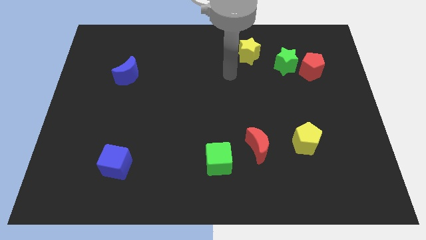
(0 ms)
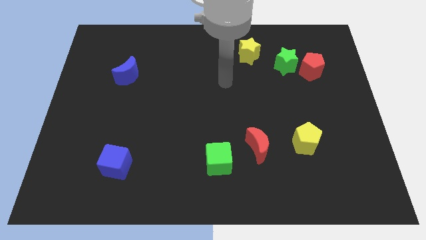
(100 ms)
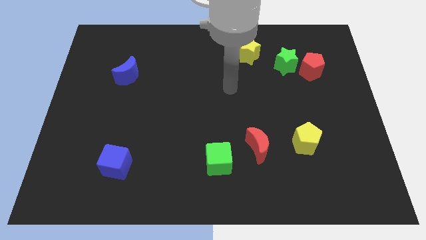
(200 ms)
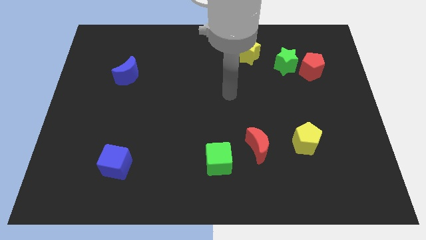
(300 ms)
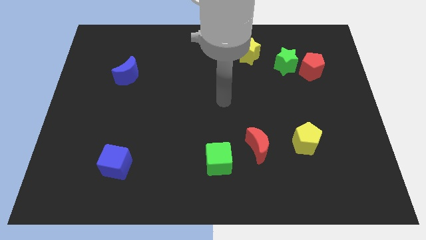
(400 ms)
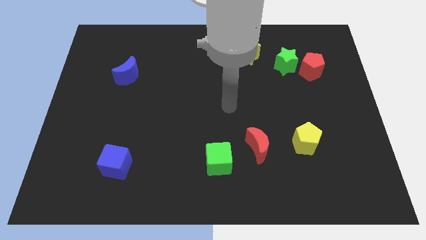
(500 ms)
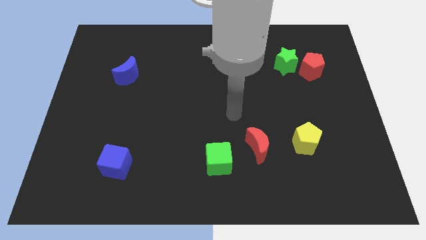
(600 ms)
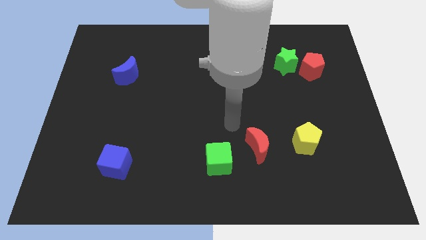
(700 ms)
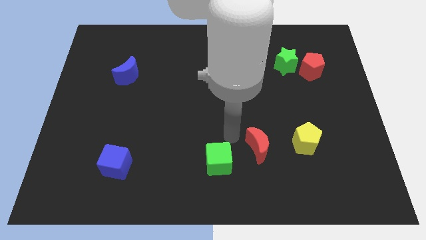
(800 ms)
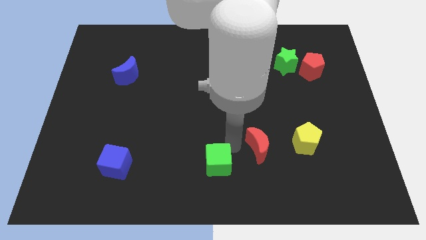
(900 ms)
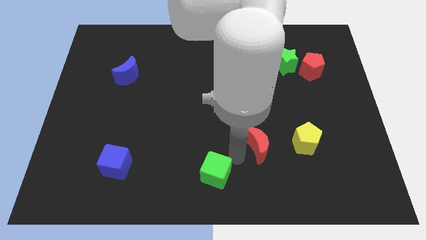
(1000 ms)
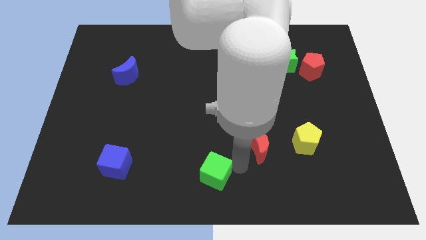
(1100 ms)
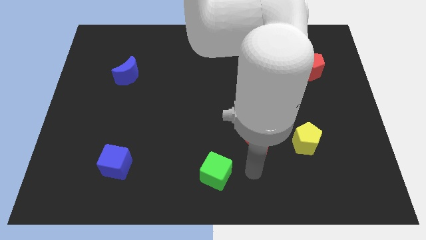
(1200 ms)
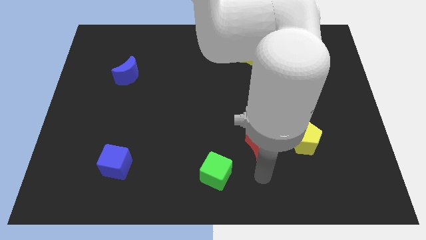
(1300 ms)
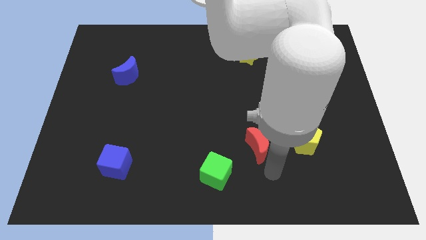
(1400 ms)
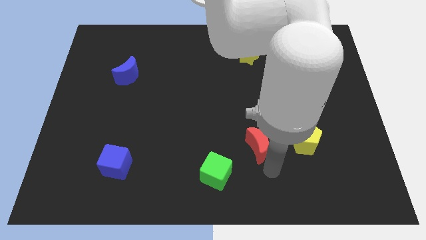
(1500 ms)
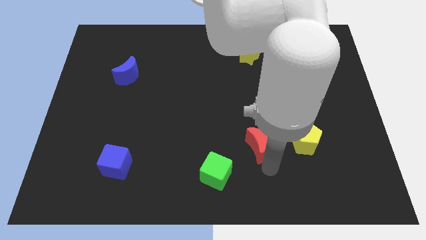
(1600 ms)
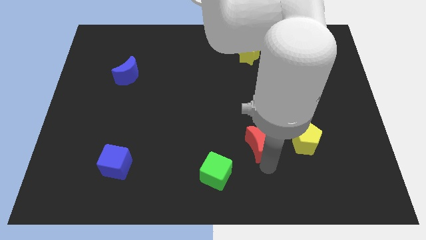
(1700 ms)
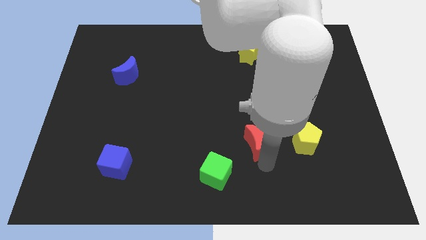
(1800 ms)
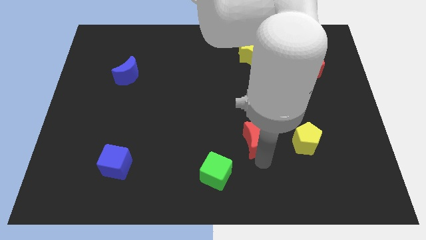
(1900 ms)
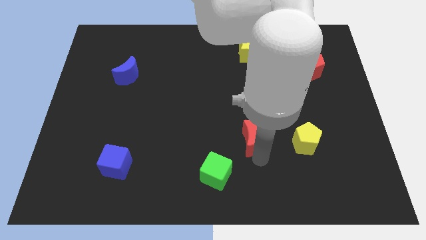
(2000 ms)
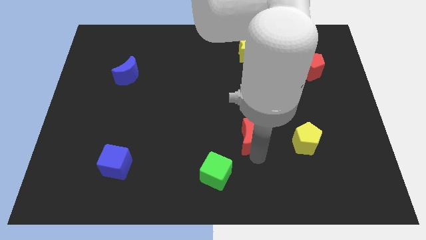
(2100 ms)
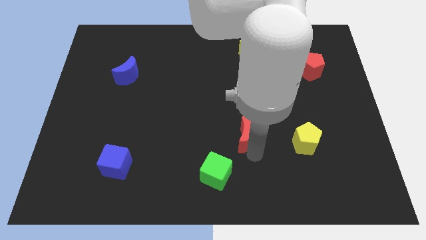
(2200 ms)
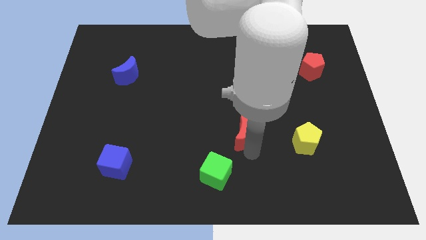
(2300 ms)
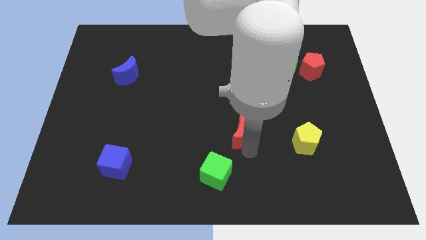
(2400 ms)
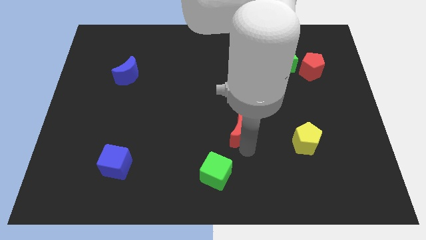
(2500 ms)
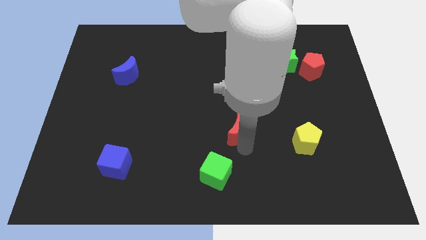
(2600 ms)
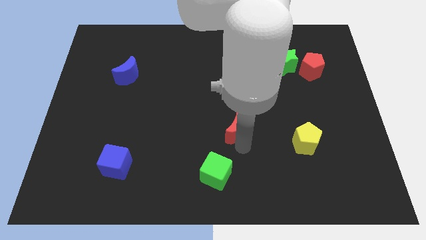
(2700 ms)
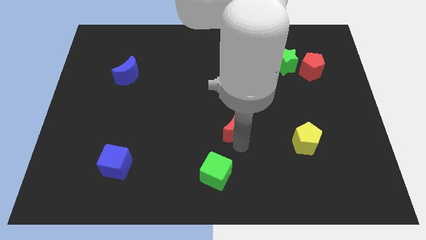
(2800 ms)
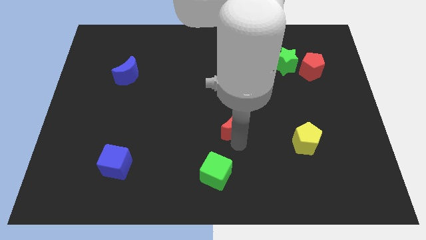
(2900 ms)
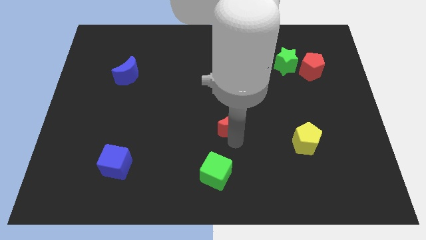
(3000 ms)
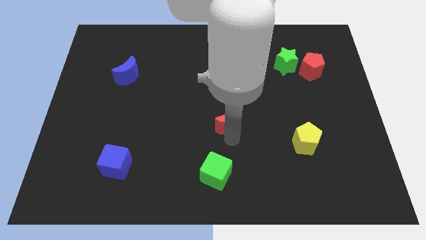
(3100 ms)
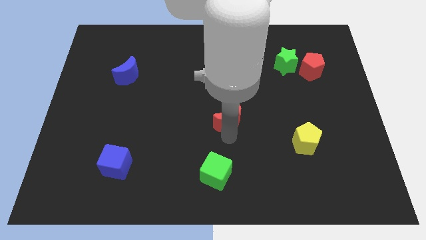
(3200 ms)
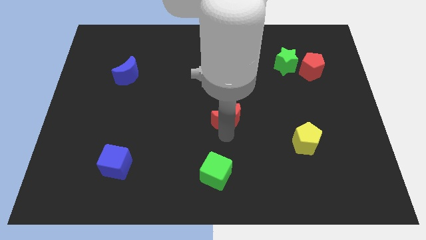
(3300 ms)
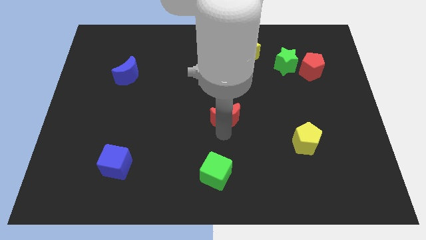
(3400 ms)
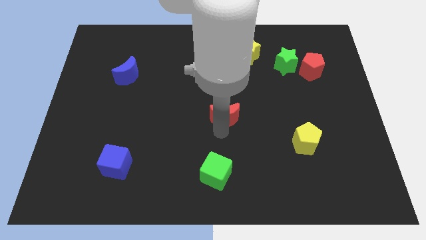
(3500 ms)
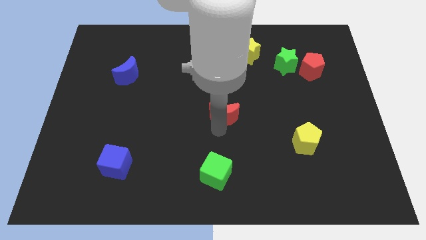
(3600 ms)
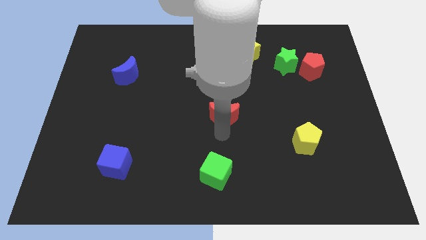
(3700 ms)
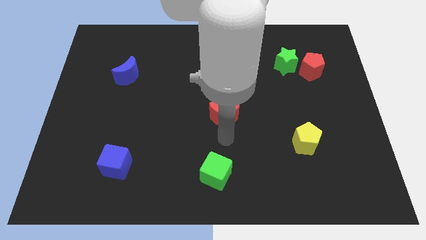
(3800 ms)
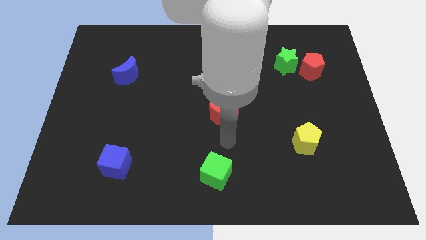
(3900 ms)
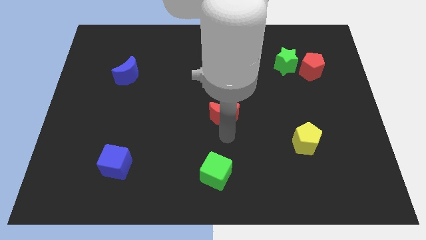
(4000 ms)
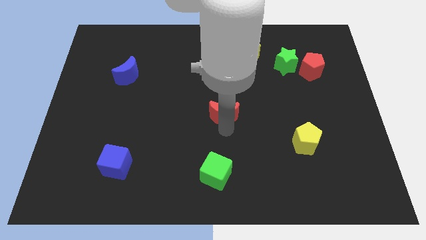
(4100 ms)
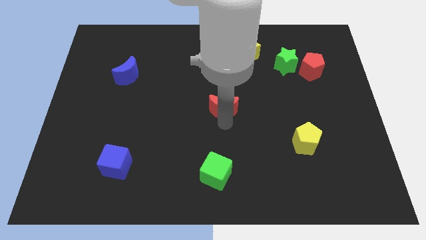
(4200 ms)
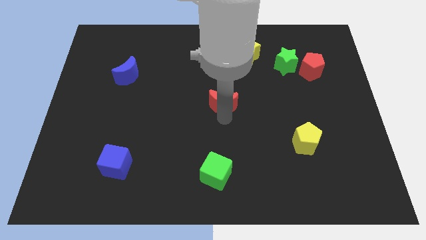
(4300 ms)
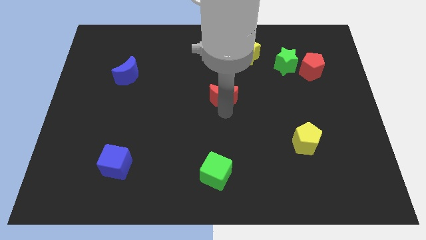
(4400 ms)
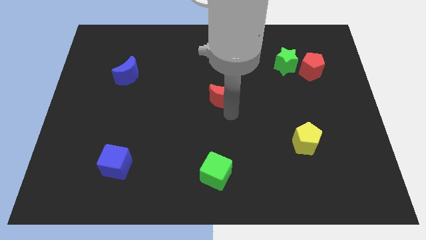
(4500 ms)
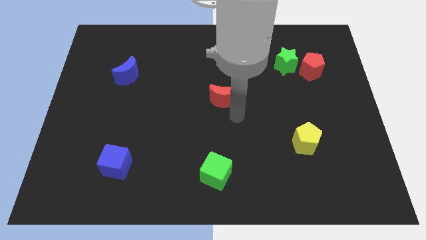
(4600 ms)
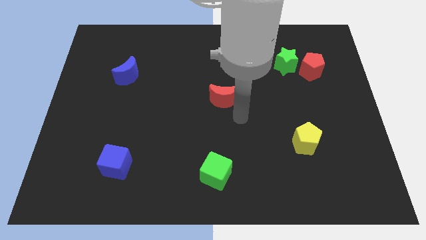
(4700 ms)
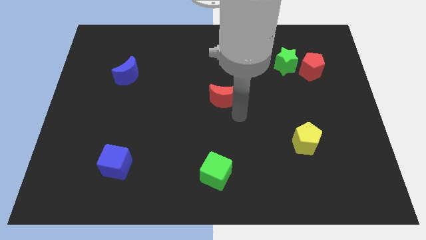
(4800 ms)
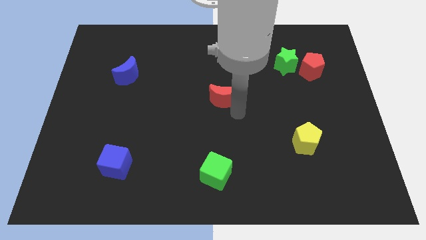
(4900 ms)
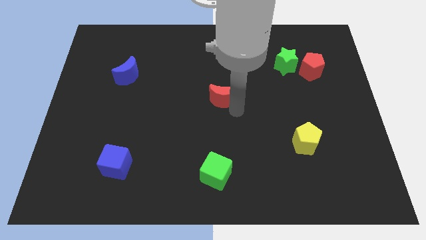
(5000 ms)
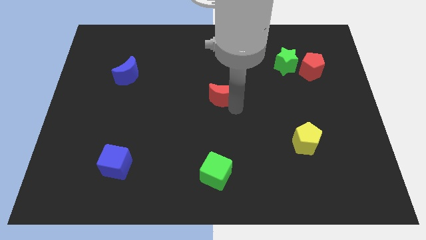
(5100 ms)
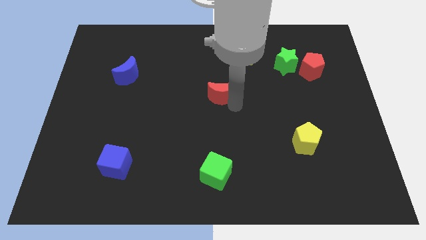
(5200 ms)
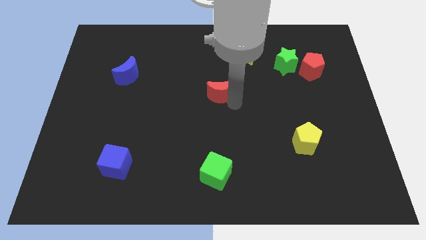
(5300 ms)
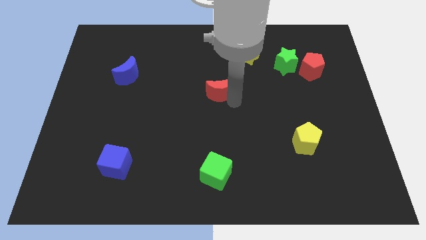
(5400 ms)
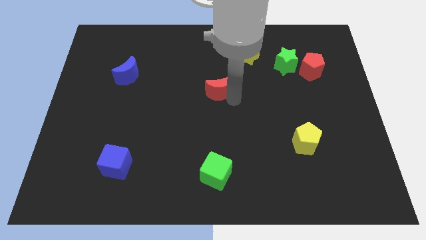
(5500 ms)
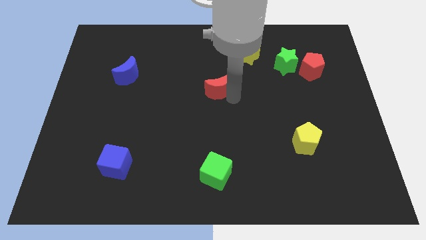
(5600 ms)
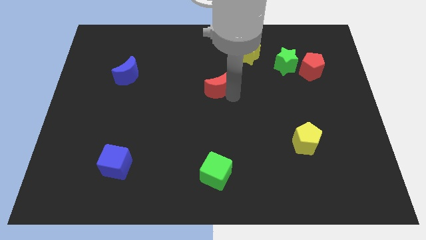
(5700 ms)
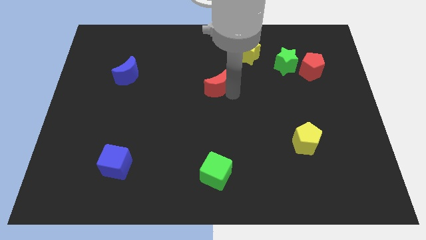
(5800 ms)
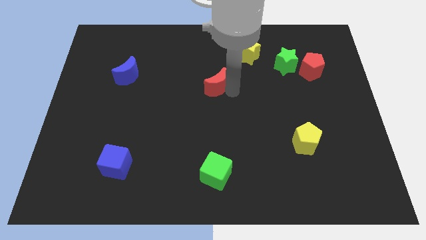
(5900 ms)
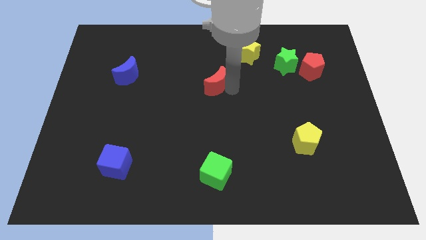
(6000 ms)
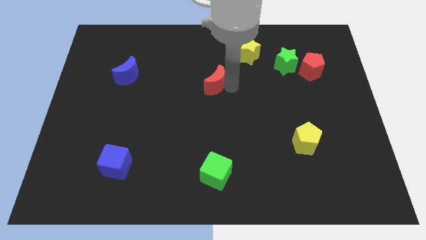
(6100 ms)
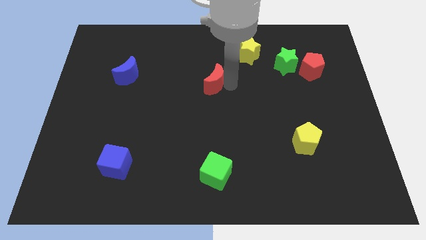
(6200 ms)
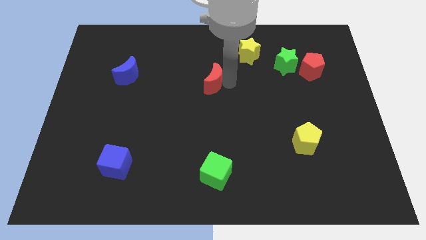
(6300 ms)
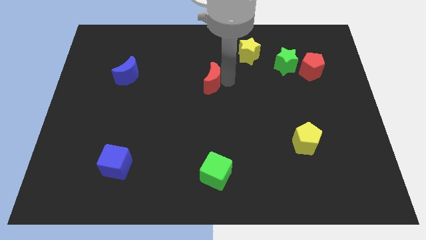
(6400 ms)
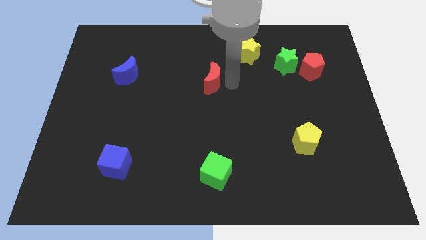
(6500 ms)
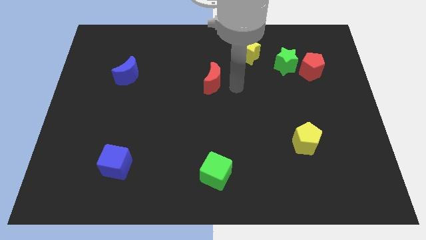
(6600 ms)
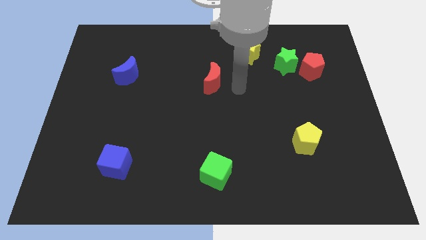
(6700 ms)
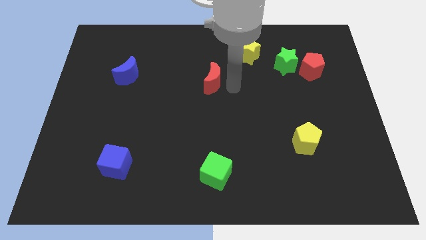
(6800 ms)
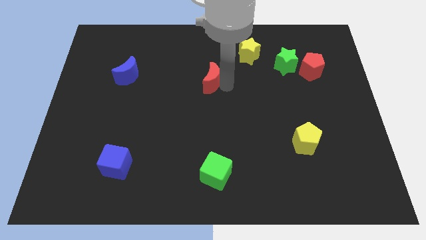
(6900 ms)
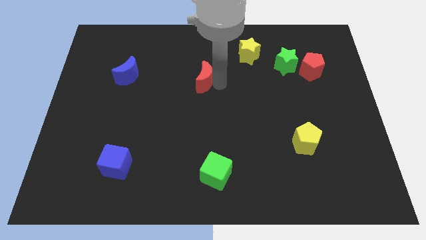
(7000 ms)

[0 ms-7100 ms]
push the red moon diagonally up and left

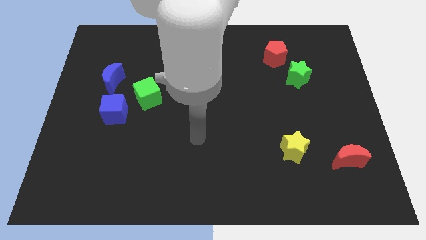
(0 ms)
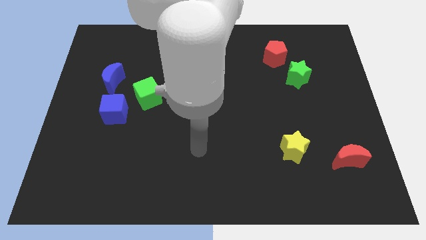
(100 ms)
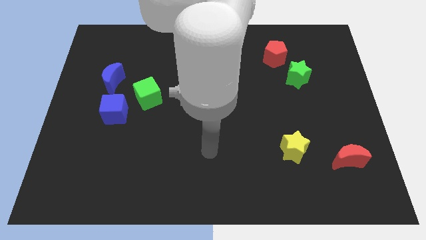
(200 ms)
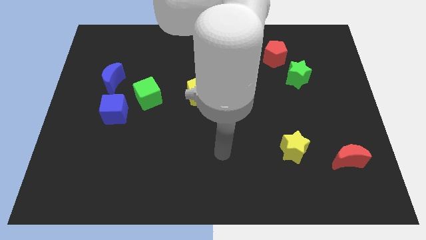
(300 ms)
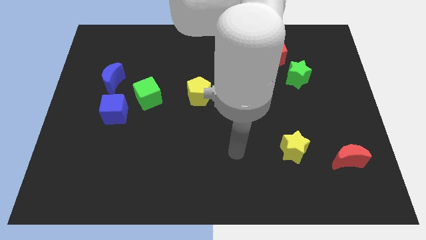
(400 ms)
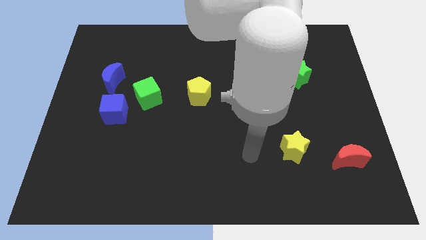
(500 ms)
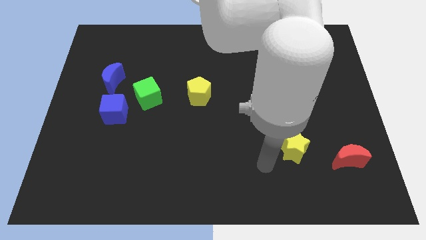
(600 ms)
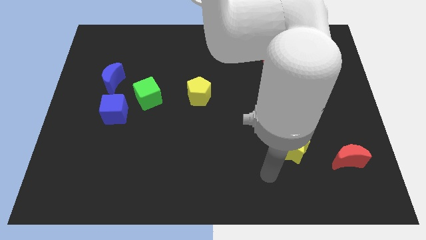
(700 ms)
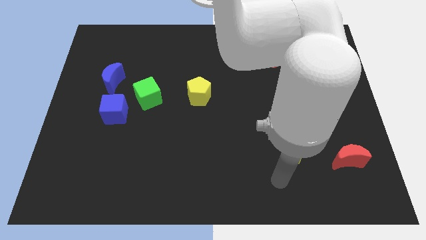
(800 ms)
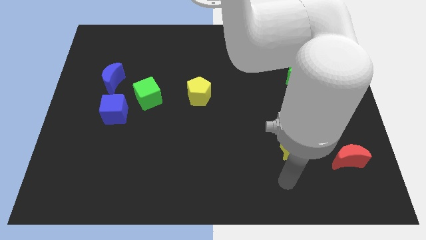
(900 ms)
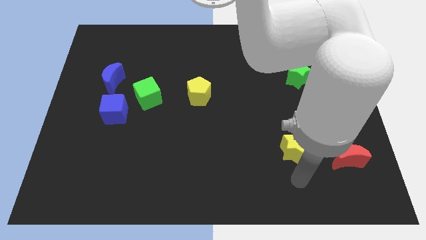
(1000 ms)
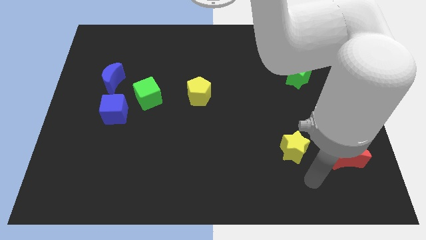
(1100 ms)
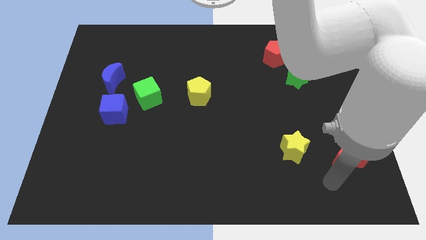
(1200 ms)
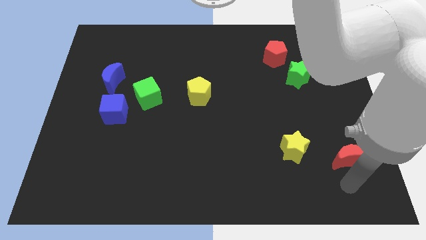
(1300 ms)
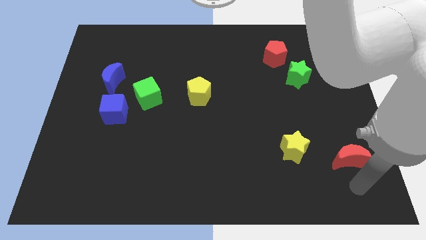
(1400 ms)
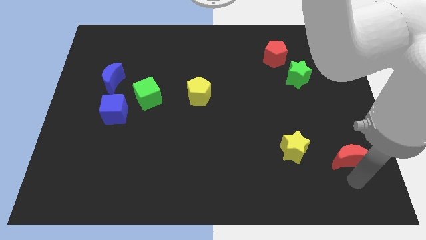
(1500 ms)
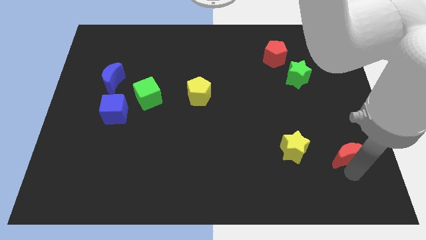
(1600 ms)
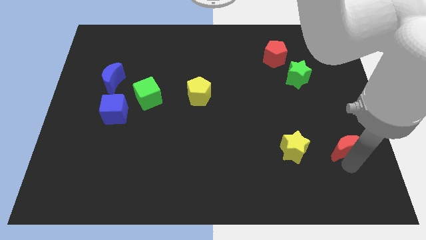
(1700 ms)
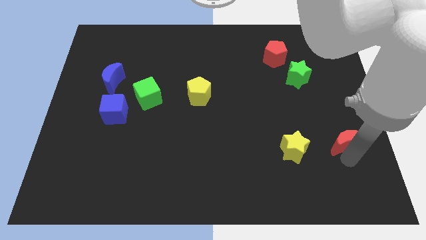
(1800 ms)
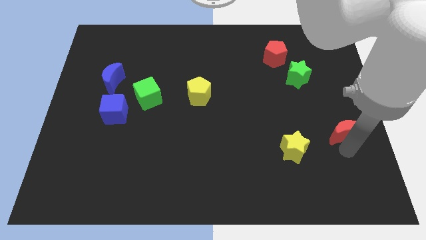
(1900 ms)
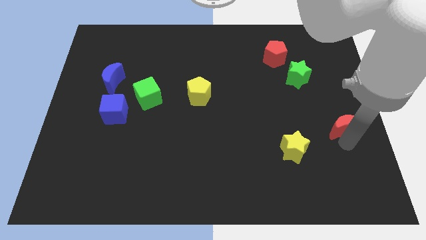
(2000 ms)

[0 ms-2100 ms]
slightly slide the red moon upwards
